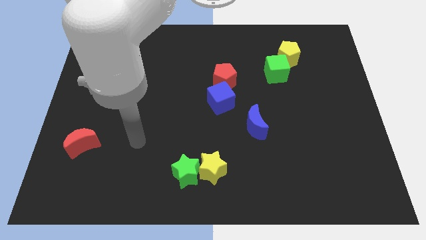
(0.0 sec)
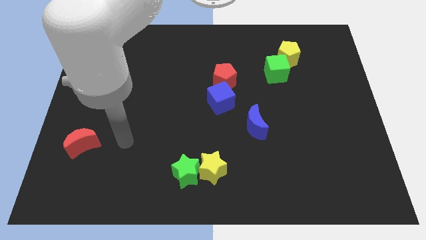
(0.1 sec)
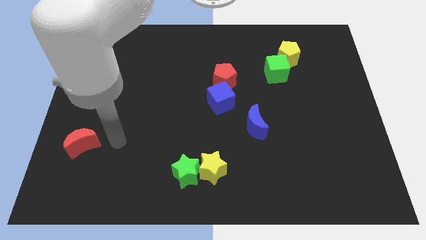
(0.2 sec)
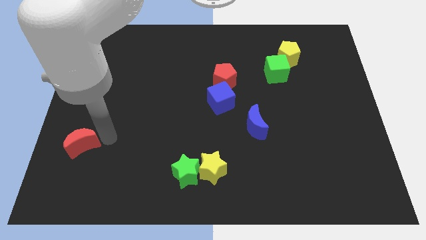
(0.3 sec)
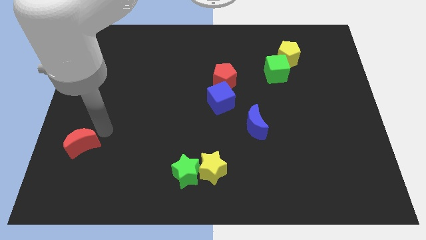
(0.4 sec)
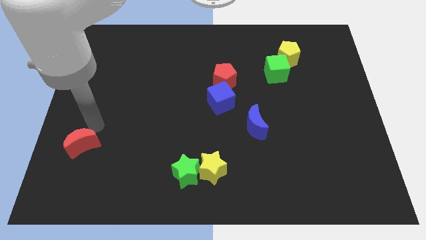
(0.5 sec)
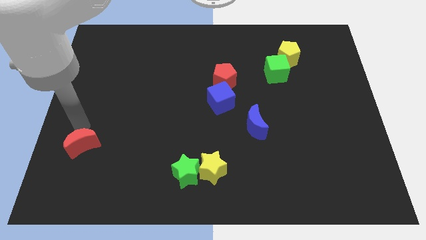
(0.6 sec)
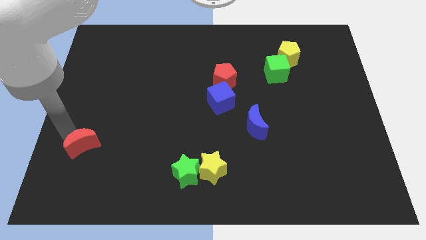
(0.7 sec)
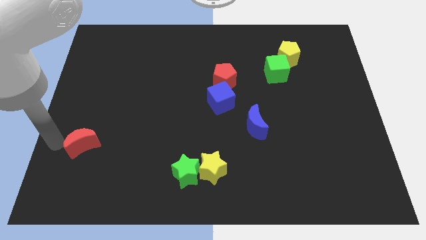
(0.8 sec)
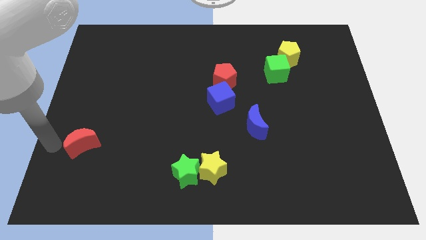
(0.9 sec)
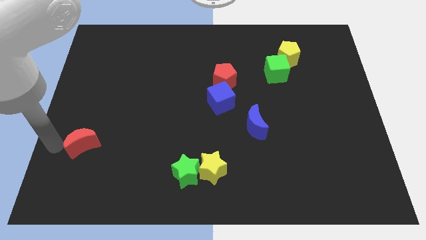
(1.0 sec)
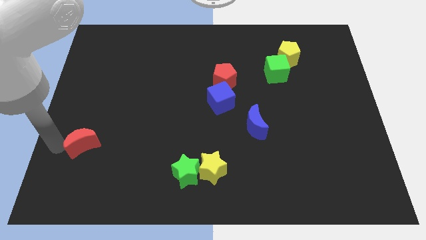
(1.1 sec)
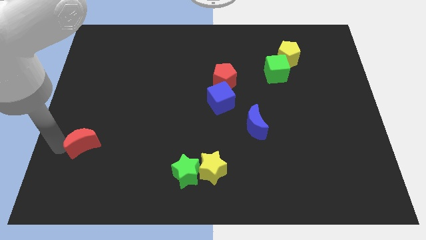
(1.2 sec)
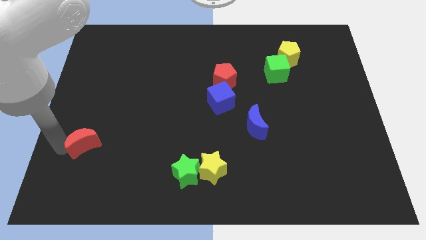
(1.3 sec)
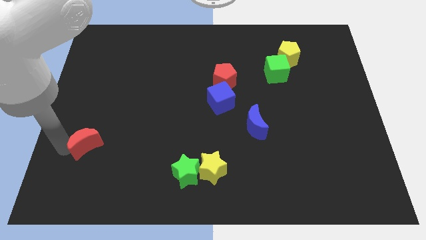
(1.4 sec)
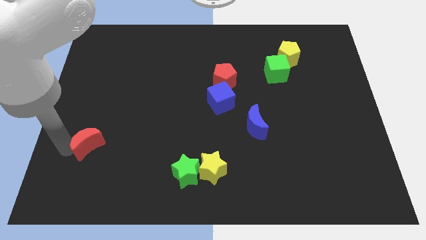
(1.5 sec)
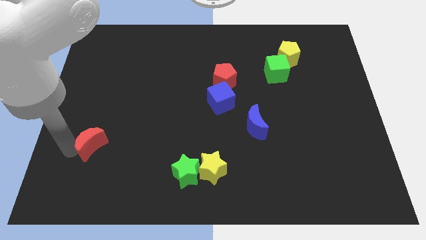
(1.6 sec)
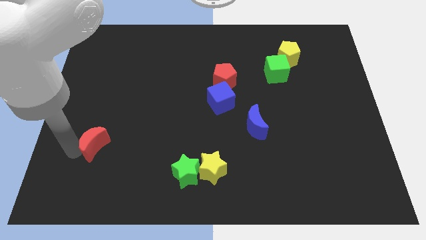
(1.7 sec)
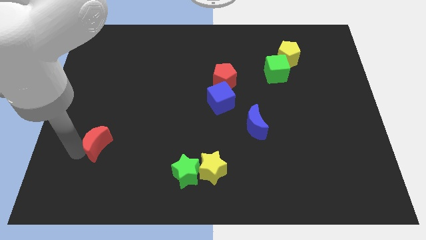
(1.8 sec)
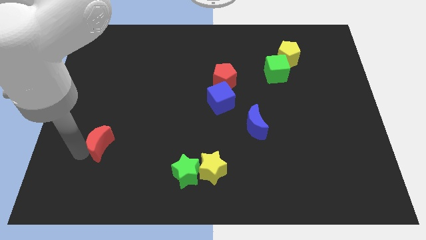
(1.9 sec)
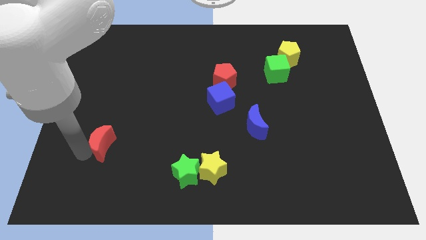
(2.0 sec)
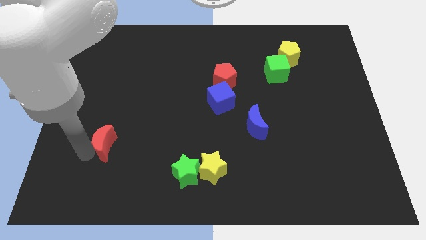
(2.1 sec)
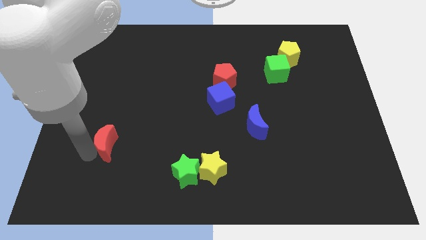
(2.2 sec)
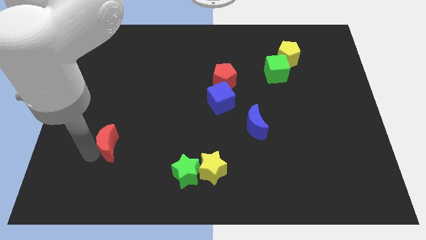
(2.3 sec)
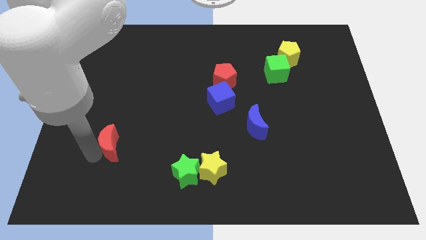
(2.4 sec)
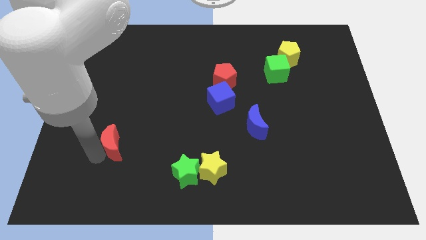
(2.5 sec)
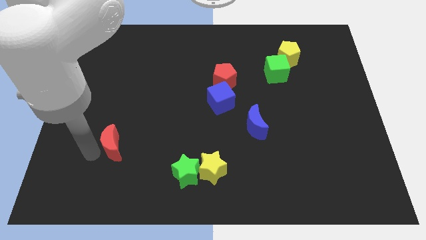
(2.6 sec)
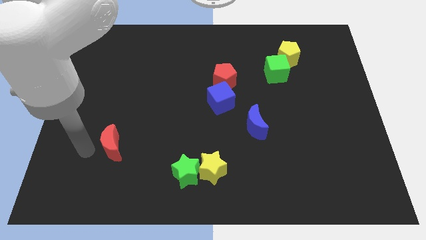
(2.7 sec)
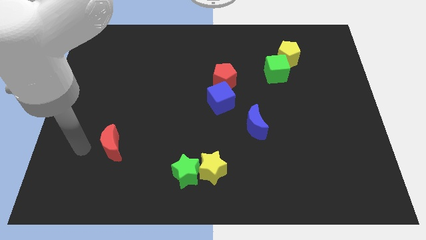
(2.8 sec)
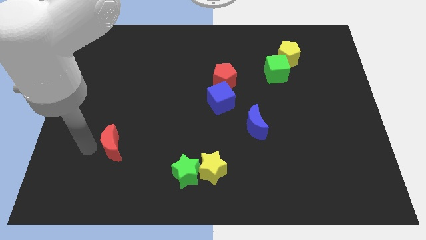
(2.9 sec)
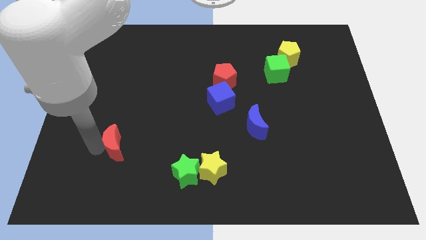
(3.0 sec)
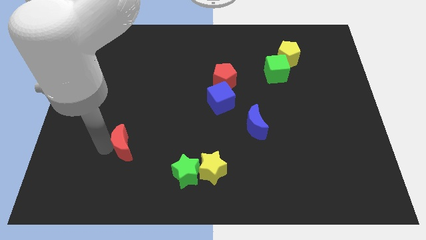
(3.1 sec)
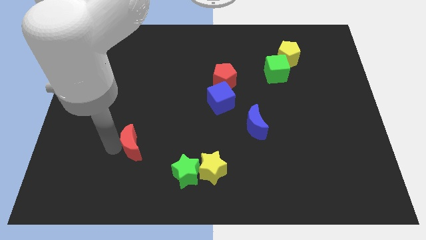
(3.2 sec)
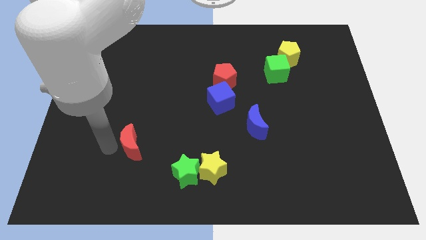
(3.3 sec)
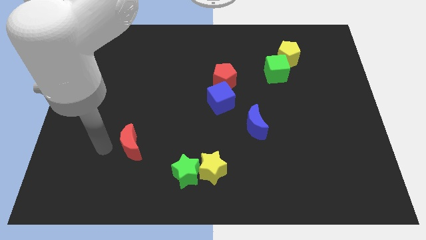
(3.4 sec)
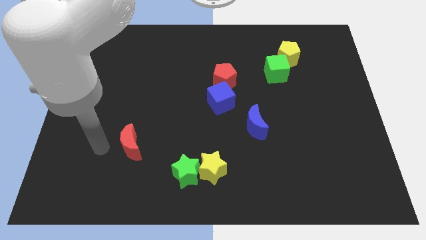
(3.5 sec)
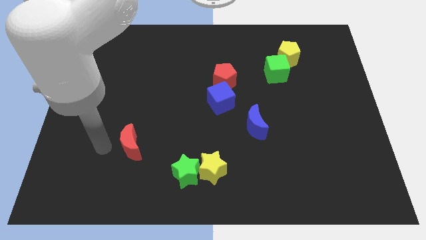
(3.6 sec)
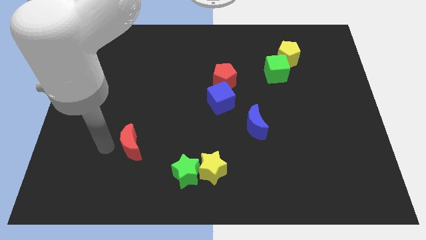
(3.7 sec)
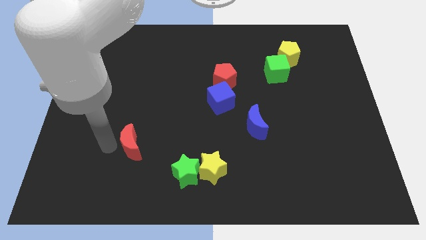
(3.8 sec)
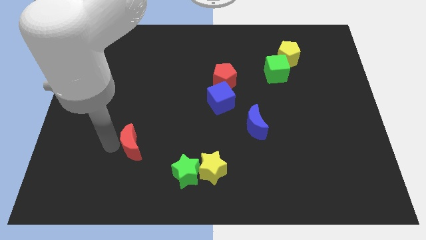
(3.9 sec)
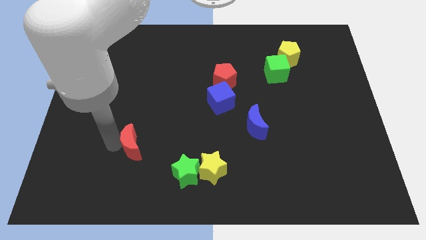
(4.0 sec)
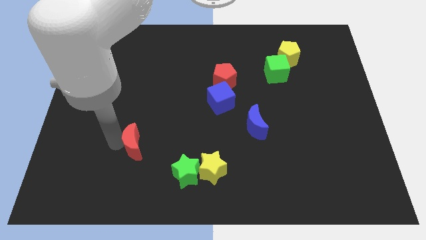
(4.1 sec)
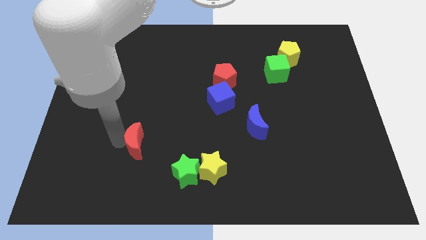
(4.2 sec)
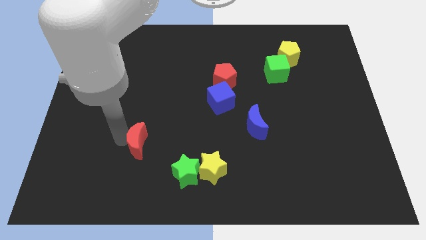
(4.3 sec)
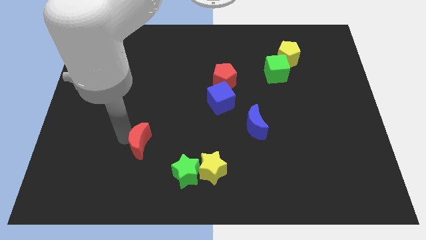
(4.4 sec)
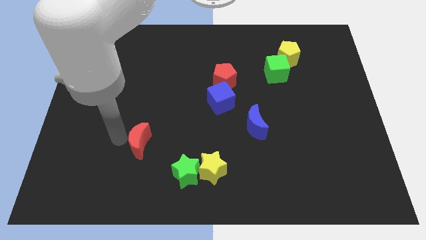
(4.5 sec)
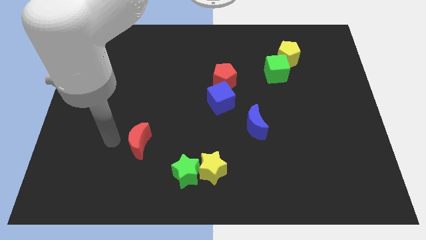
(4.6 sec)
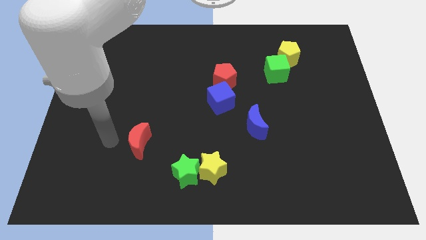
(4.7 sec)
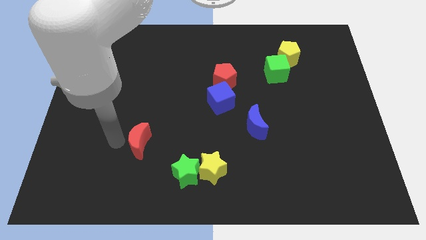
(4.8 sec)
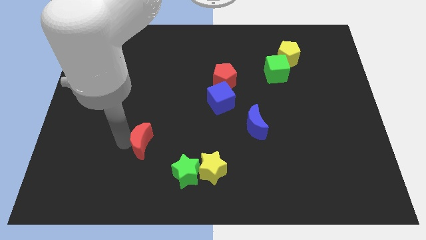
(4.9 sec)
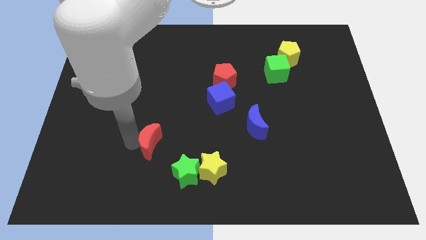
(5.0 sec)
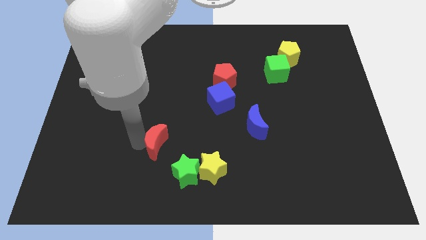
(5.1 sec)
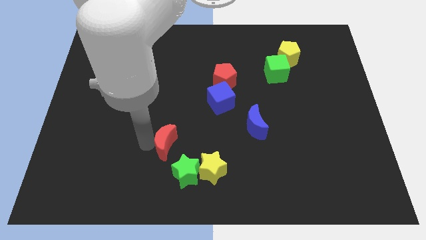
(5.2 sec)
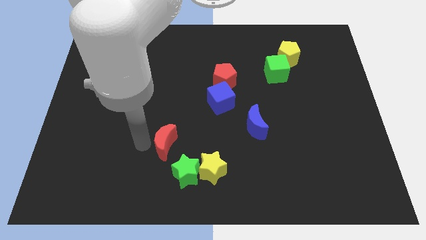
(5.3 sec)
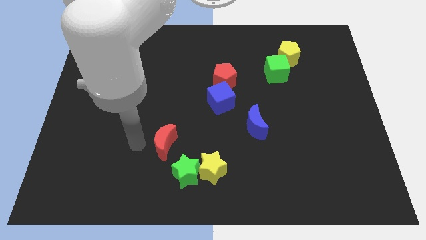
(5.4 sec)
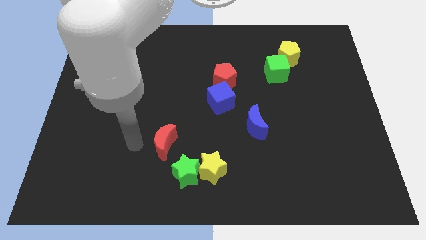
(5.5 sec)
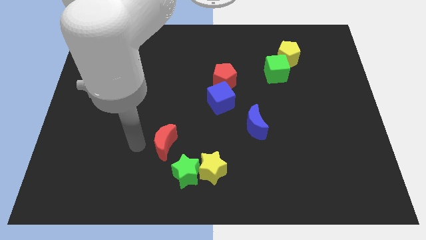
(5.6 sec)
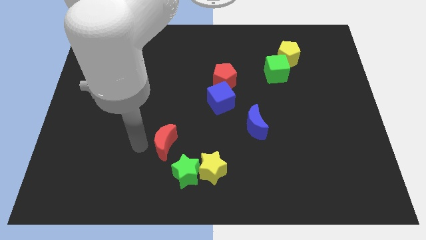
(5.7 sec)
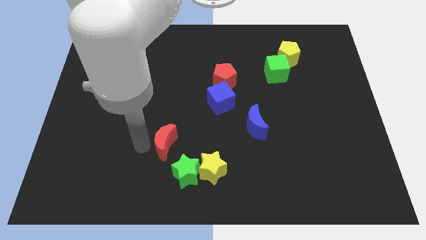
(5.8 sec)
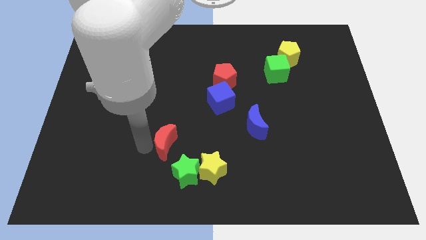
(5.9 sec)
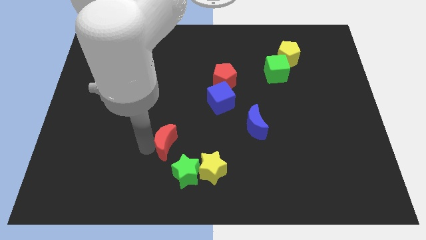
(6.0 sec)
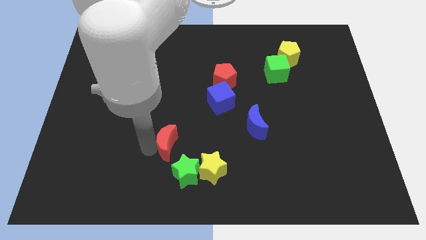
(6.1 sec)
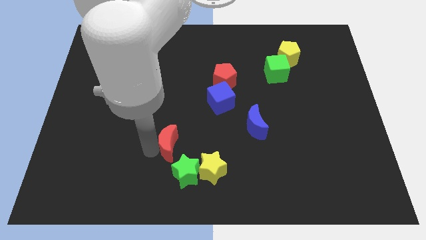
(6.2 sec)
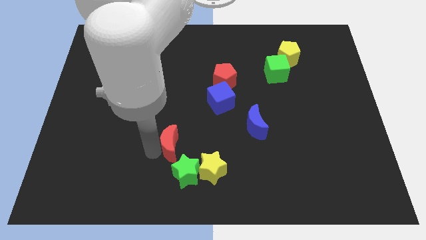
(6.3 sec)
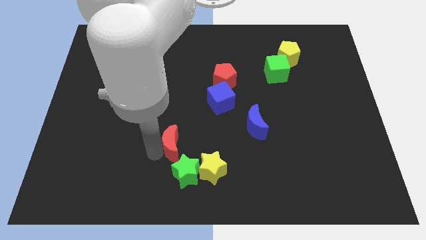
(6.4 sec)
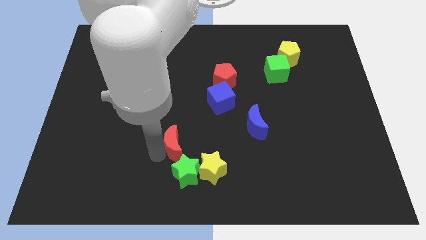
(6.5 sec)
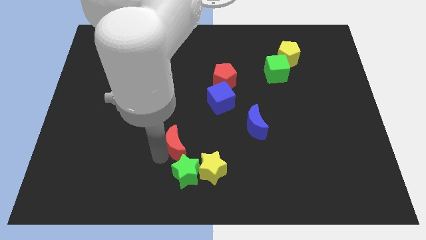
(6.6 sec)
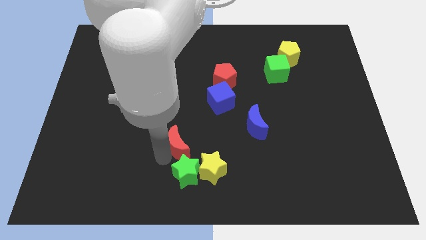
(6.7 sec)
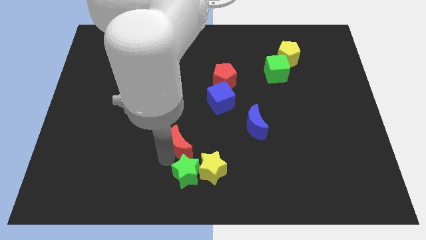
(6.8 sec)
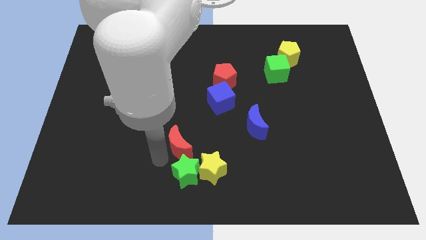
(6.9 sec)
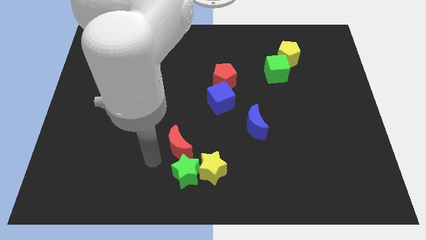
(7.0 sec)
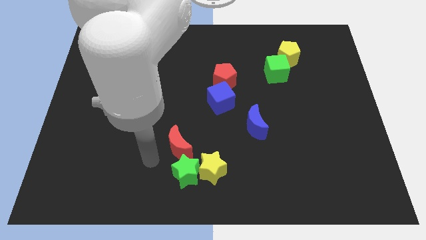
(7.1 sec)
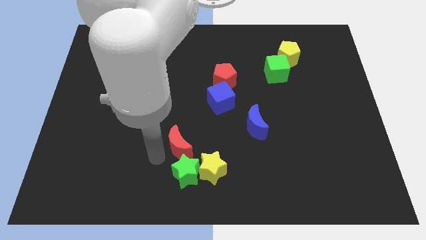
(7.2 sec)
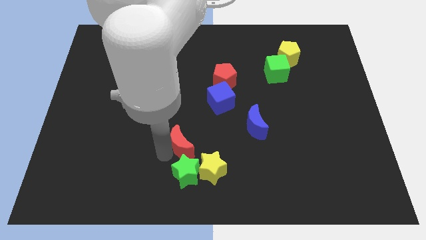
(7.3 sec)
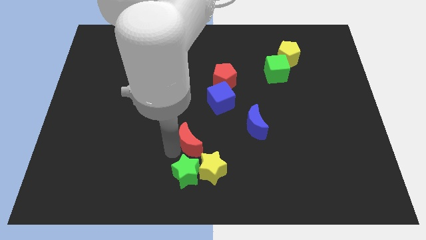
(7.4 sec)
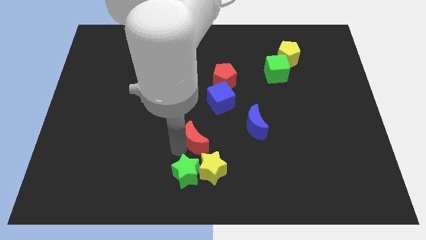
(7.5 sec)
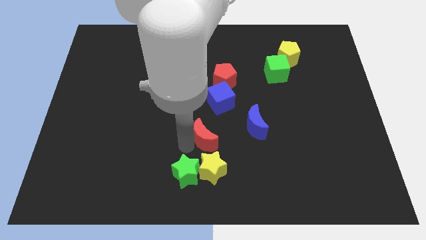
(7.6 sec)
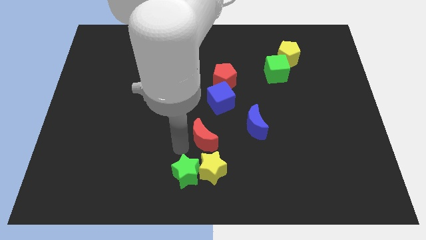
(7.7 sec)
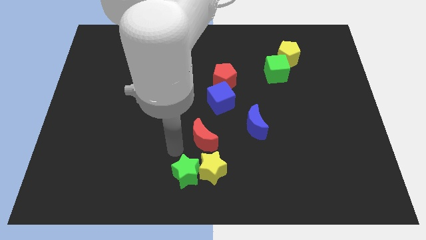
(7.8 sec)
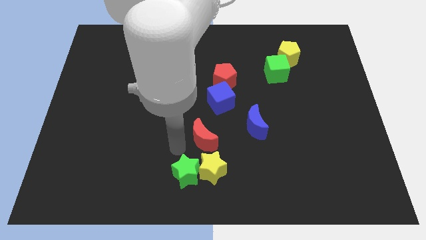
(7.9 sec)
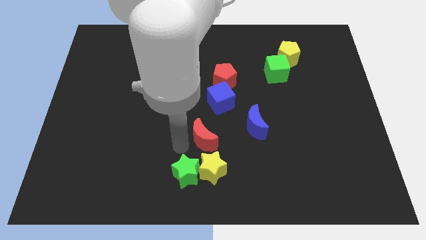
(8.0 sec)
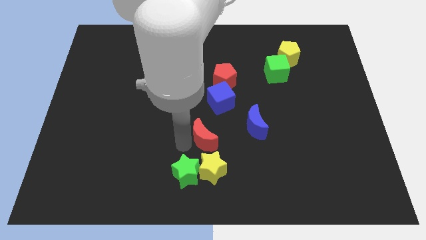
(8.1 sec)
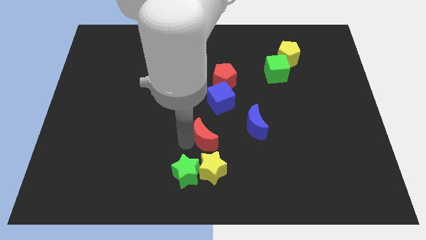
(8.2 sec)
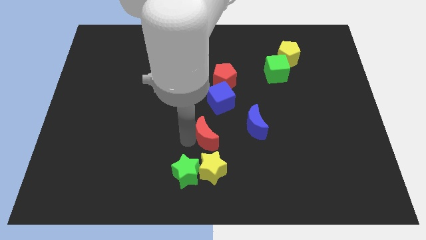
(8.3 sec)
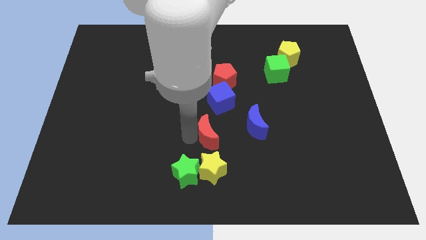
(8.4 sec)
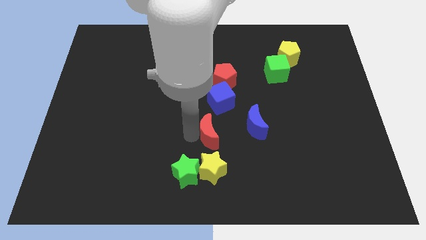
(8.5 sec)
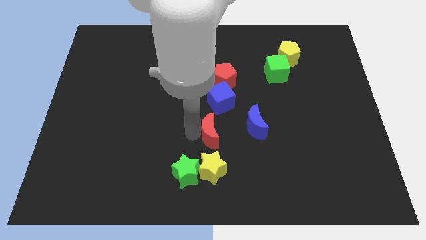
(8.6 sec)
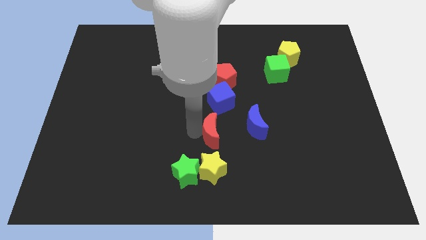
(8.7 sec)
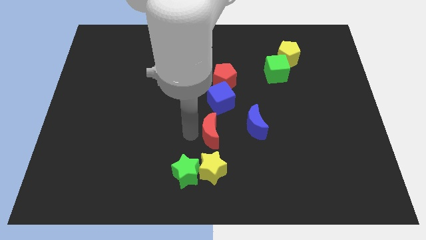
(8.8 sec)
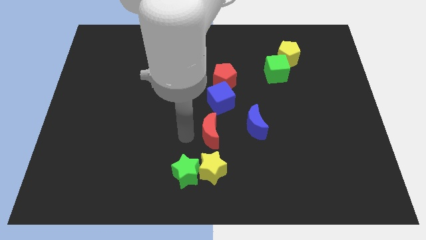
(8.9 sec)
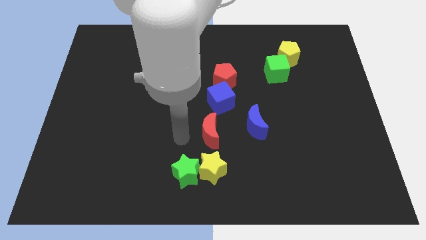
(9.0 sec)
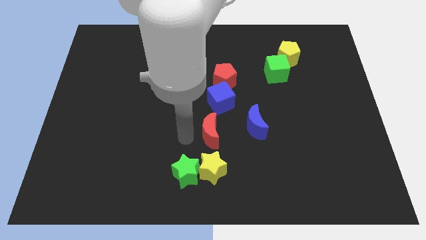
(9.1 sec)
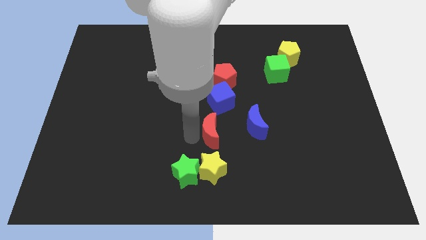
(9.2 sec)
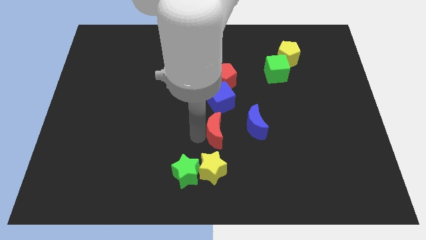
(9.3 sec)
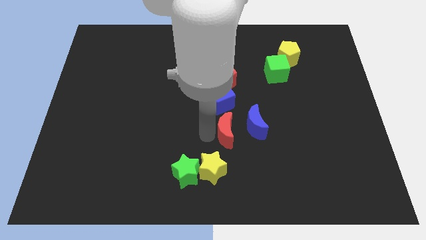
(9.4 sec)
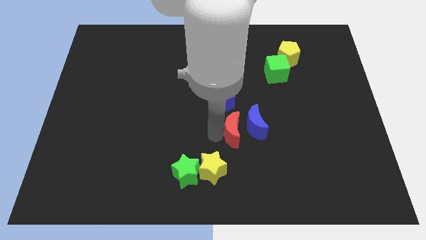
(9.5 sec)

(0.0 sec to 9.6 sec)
push the red moon next to the blue moon
